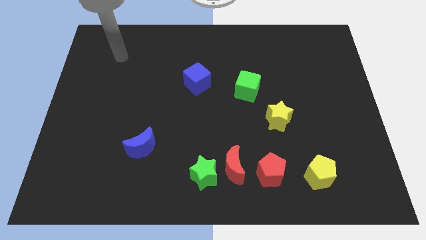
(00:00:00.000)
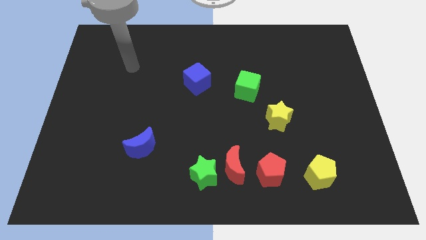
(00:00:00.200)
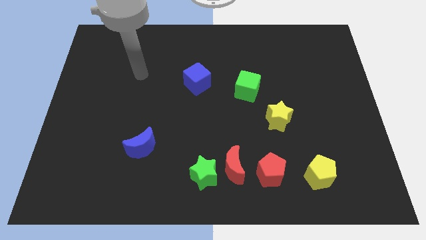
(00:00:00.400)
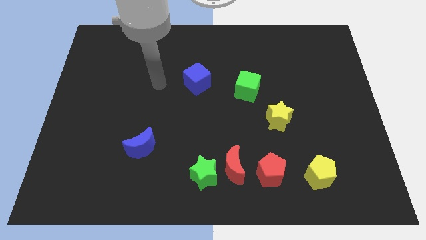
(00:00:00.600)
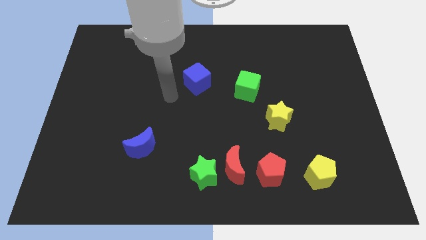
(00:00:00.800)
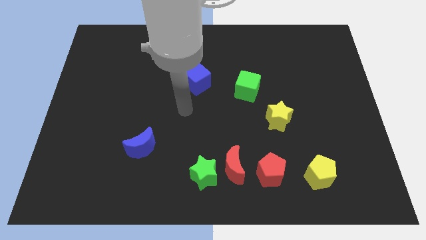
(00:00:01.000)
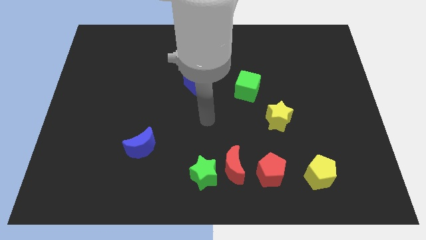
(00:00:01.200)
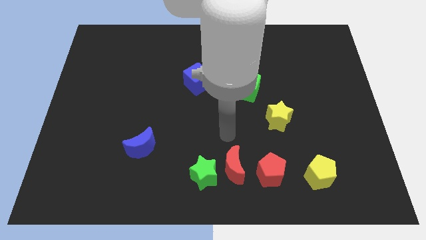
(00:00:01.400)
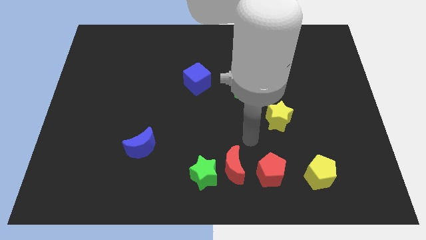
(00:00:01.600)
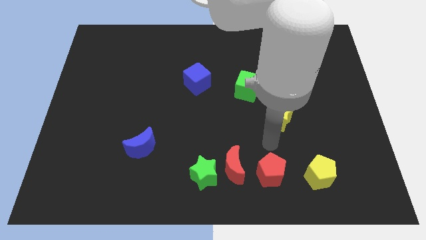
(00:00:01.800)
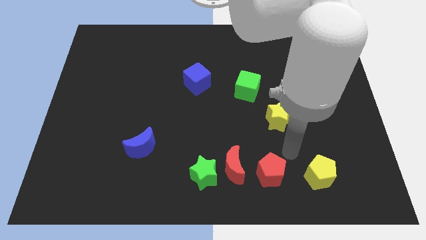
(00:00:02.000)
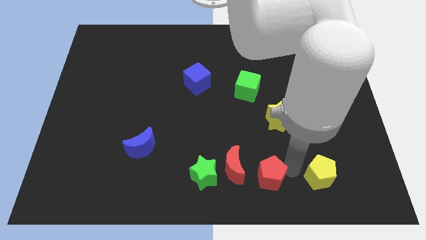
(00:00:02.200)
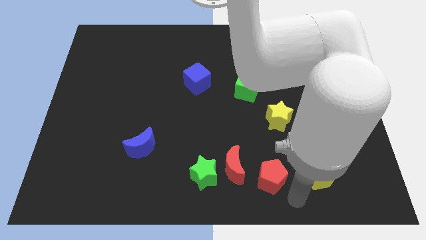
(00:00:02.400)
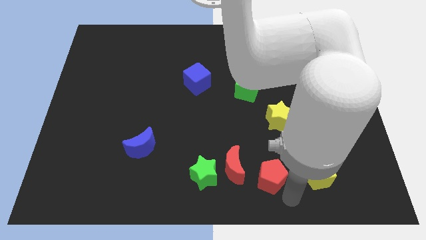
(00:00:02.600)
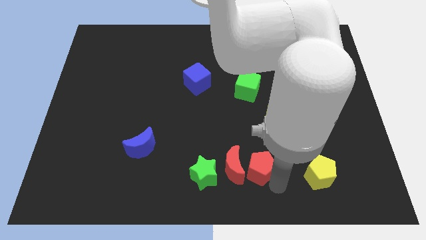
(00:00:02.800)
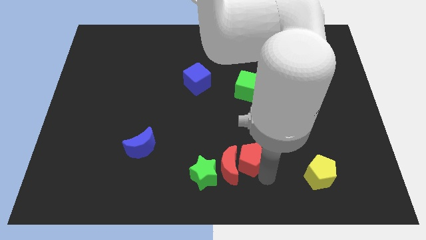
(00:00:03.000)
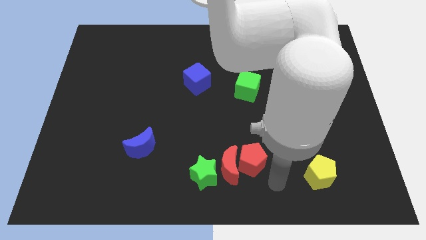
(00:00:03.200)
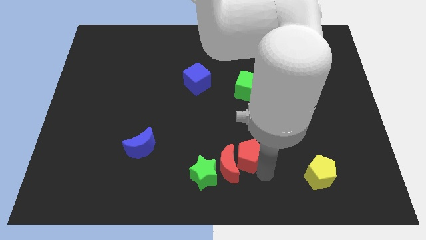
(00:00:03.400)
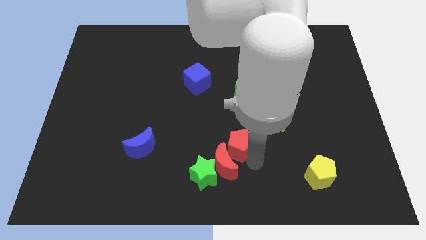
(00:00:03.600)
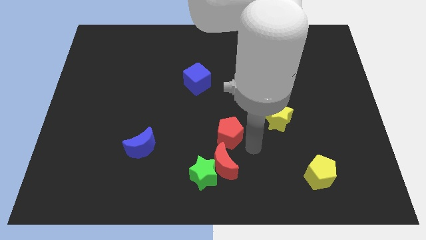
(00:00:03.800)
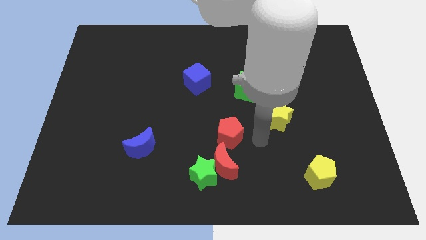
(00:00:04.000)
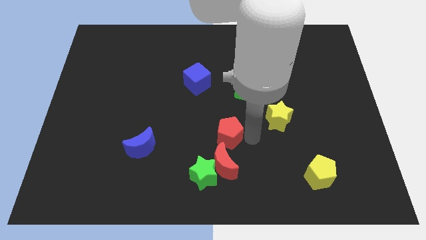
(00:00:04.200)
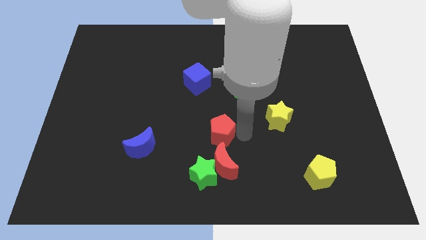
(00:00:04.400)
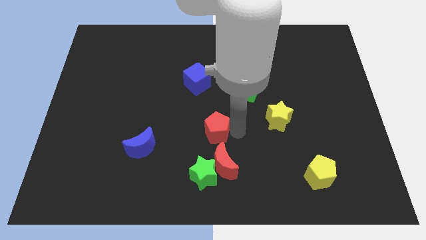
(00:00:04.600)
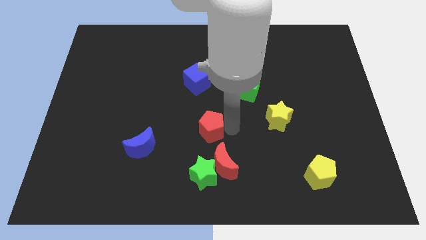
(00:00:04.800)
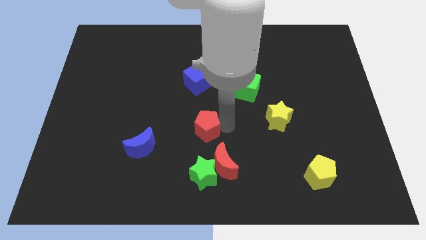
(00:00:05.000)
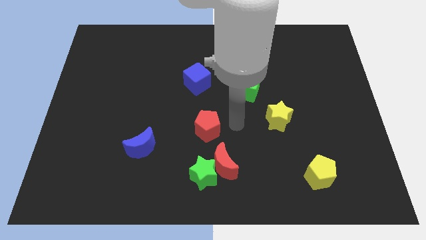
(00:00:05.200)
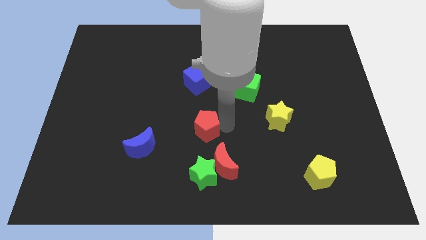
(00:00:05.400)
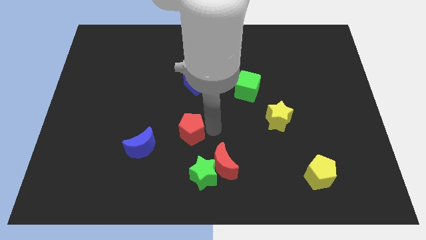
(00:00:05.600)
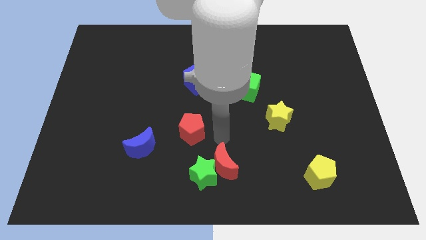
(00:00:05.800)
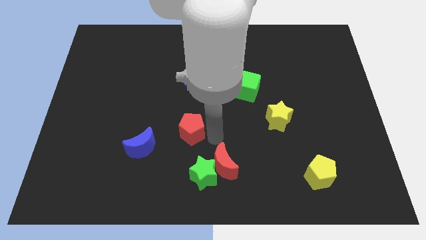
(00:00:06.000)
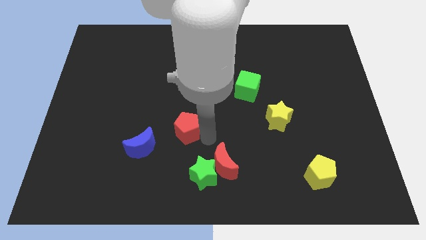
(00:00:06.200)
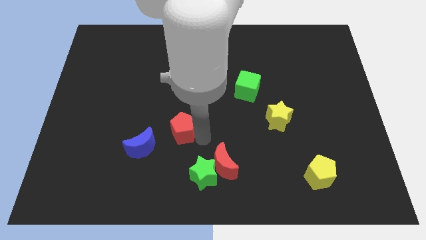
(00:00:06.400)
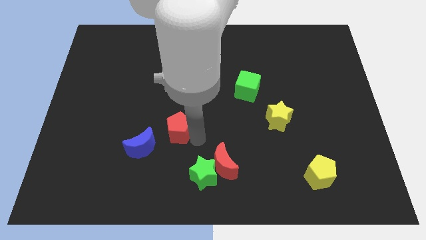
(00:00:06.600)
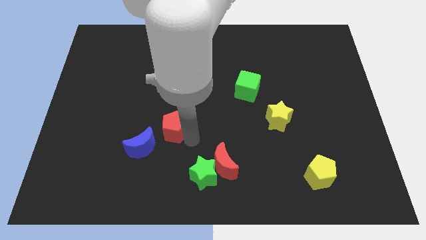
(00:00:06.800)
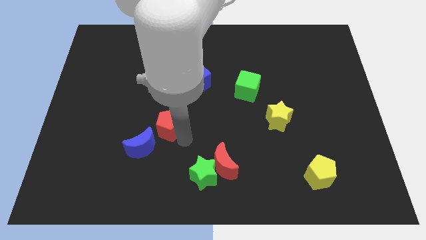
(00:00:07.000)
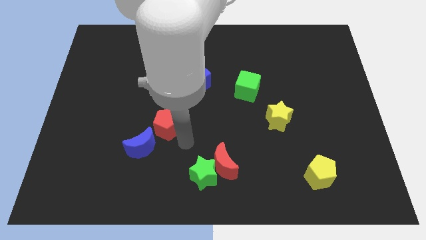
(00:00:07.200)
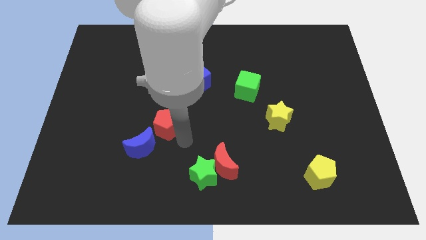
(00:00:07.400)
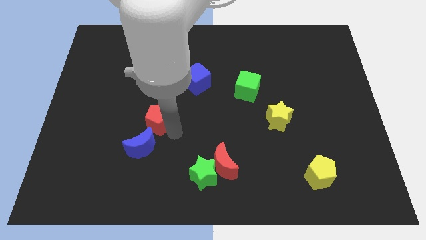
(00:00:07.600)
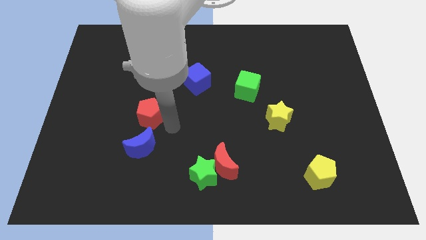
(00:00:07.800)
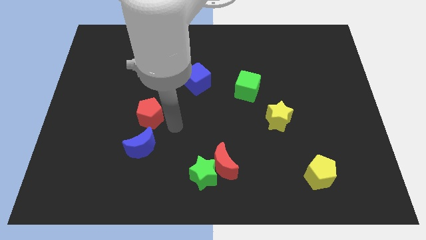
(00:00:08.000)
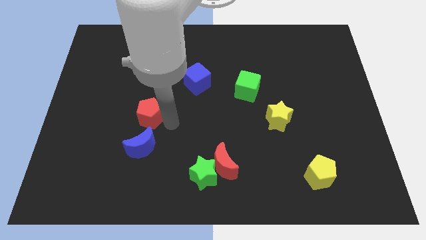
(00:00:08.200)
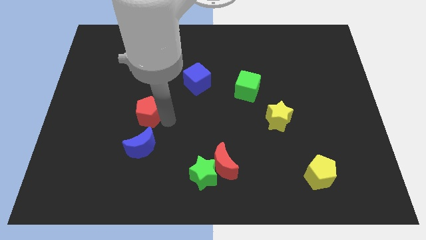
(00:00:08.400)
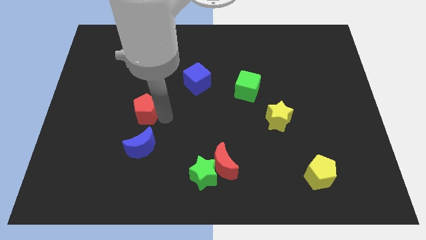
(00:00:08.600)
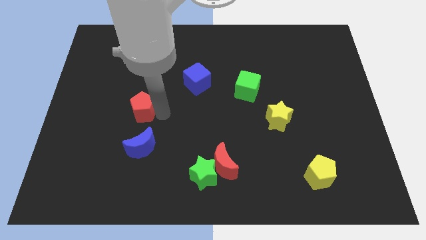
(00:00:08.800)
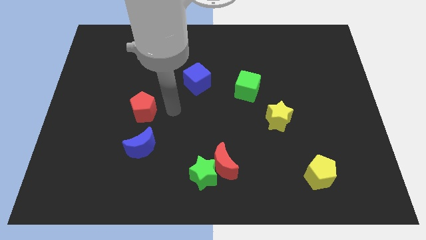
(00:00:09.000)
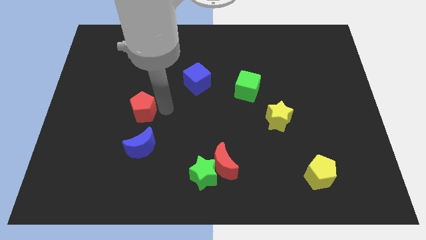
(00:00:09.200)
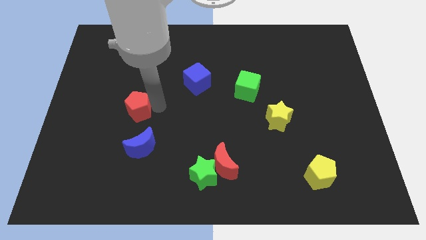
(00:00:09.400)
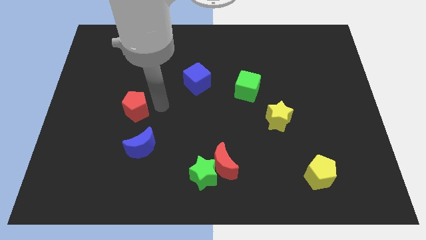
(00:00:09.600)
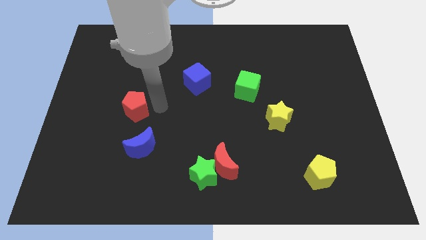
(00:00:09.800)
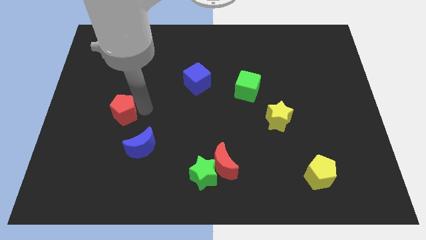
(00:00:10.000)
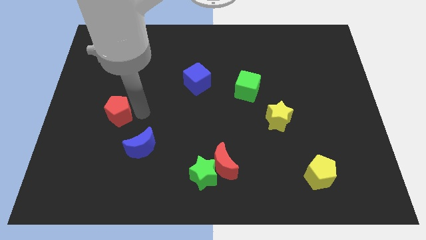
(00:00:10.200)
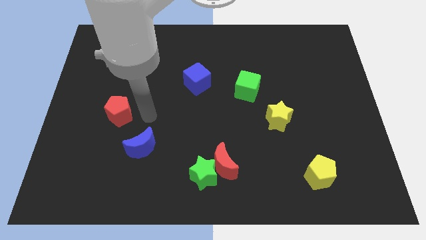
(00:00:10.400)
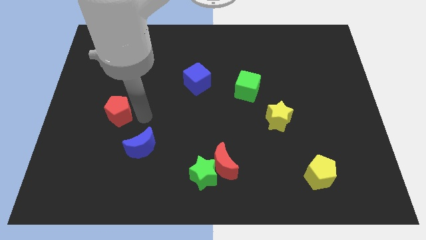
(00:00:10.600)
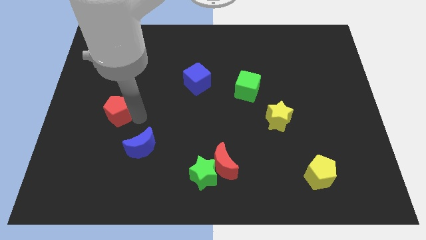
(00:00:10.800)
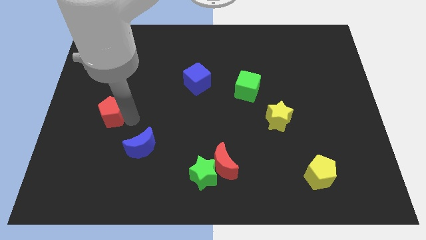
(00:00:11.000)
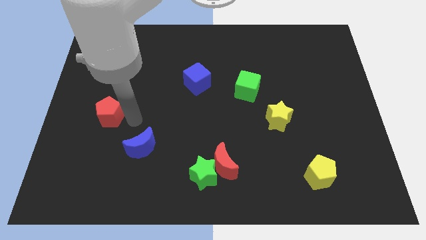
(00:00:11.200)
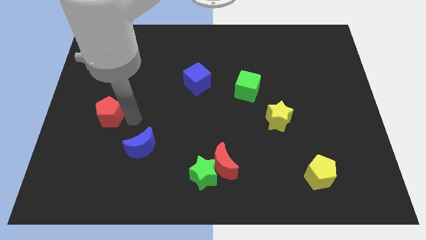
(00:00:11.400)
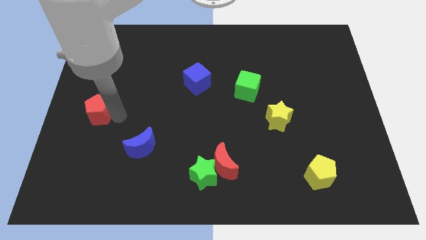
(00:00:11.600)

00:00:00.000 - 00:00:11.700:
push the red pentagon to the left side

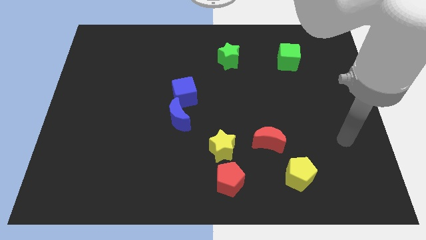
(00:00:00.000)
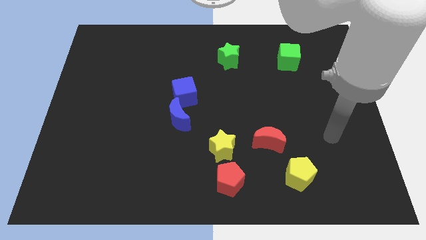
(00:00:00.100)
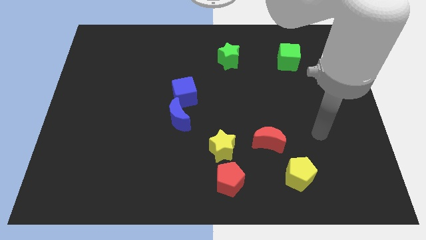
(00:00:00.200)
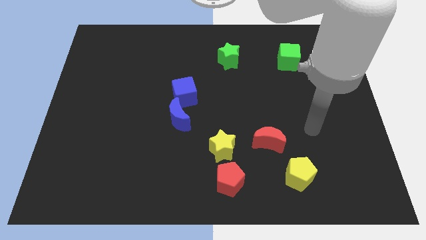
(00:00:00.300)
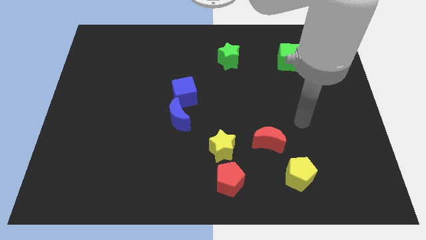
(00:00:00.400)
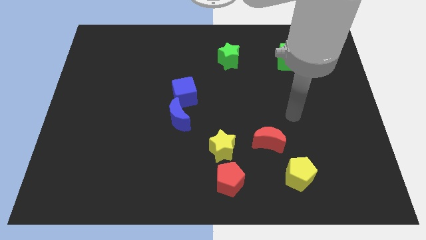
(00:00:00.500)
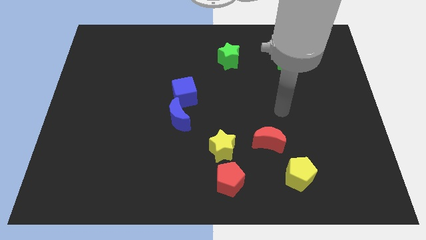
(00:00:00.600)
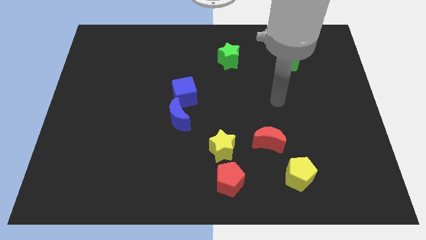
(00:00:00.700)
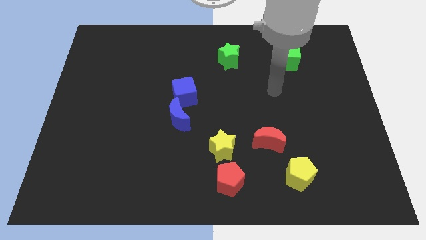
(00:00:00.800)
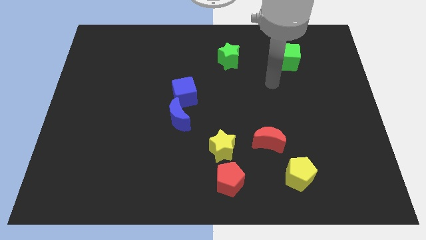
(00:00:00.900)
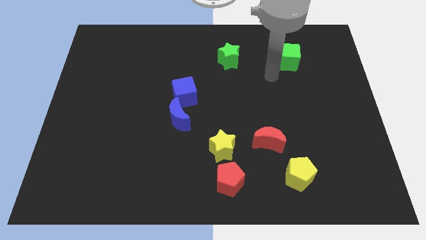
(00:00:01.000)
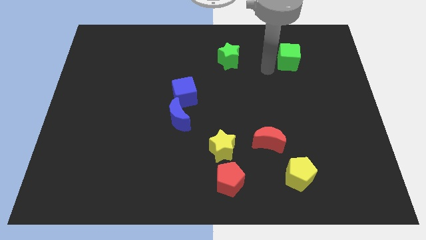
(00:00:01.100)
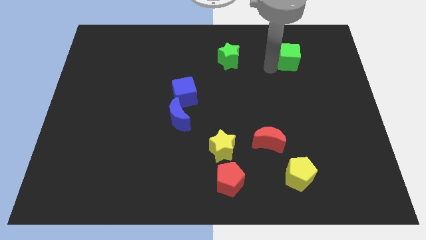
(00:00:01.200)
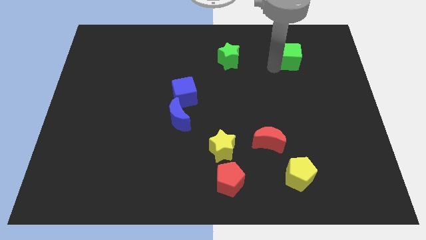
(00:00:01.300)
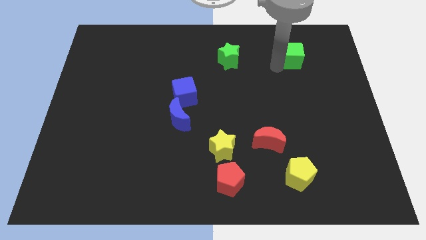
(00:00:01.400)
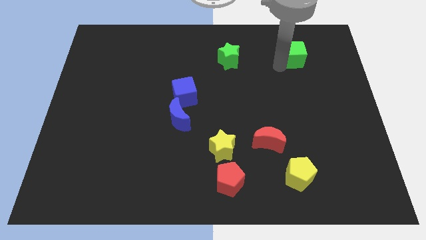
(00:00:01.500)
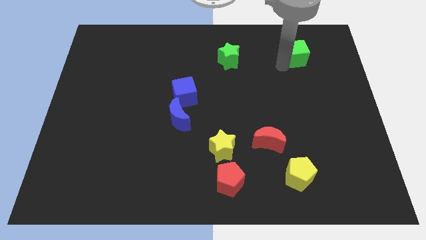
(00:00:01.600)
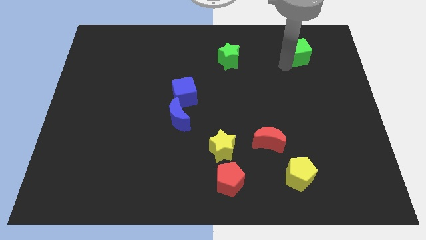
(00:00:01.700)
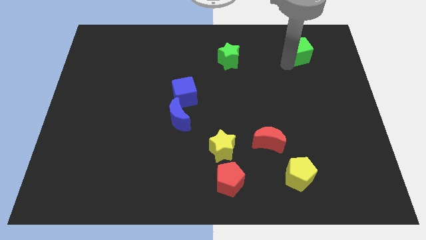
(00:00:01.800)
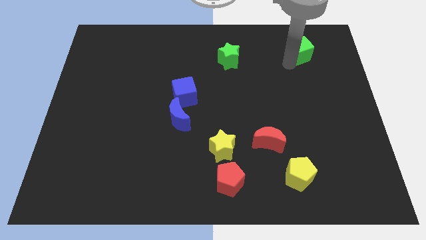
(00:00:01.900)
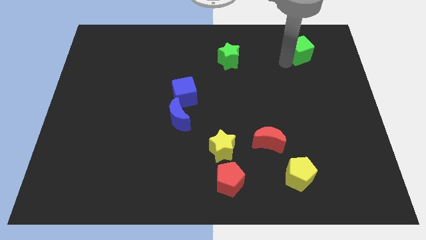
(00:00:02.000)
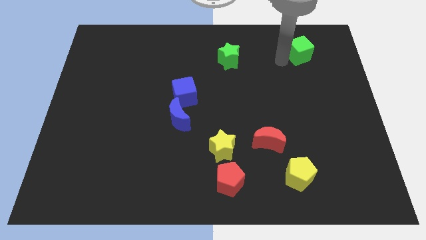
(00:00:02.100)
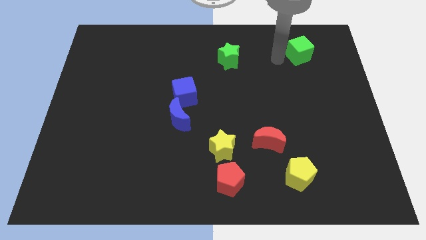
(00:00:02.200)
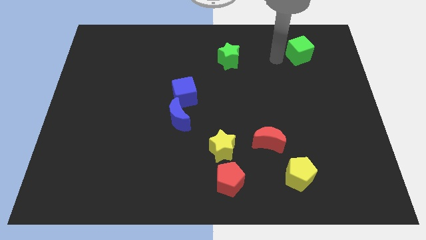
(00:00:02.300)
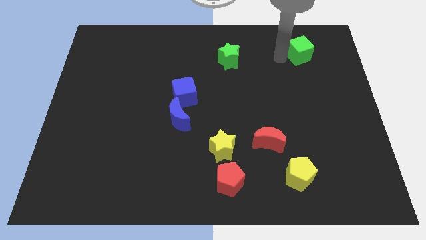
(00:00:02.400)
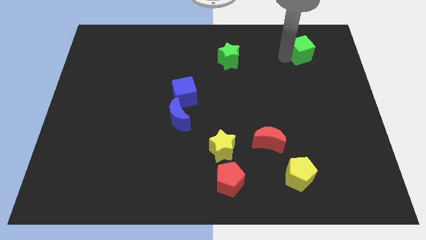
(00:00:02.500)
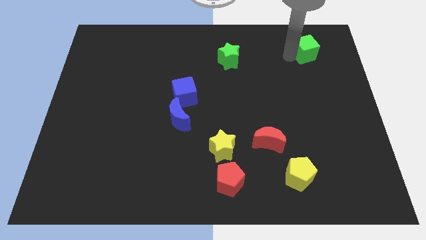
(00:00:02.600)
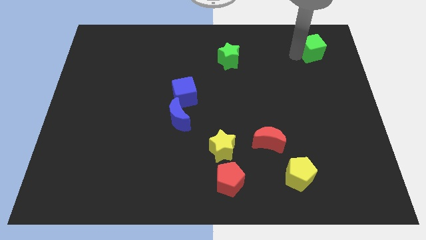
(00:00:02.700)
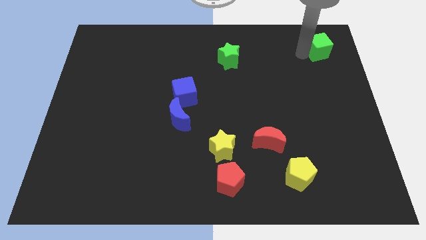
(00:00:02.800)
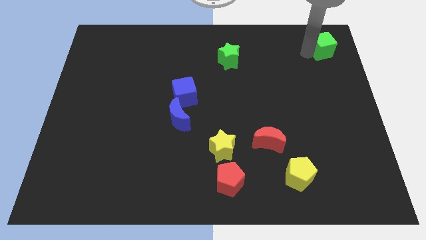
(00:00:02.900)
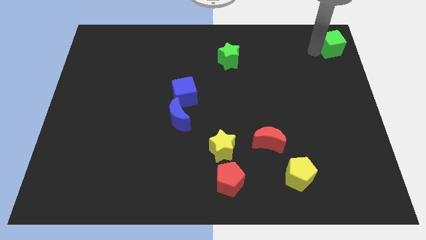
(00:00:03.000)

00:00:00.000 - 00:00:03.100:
put the green cube to the top right corner
